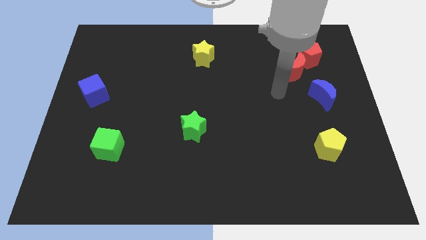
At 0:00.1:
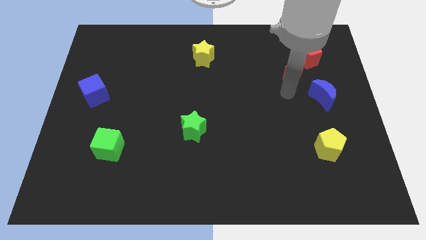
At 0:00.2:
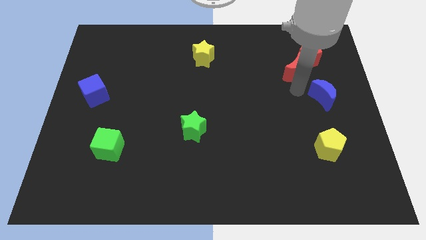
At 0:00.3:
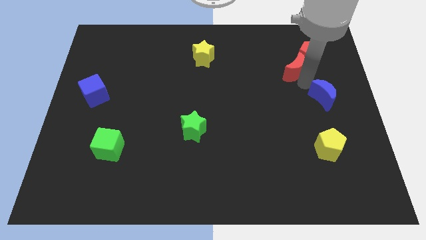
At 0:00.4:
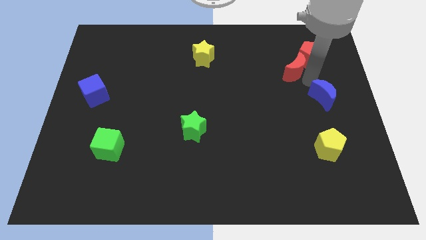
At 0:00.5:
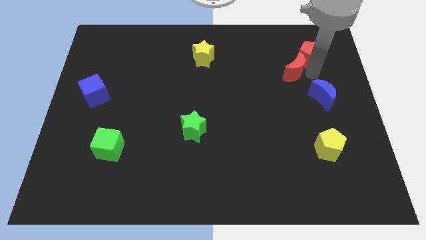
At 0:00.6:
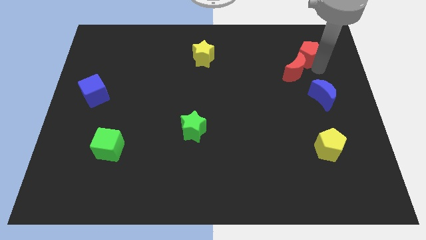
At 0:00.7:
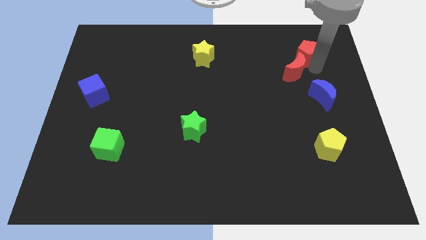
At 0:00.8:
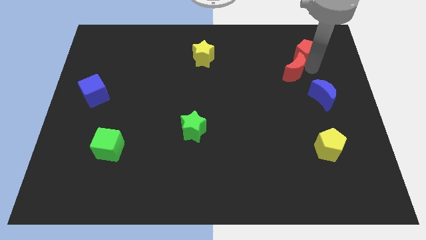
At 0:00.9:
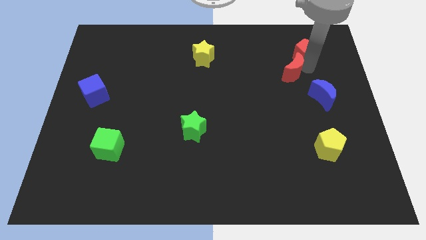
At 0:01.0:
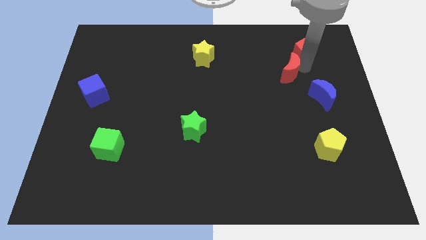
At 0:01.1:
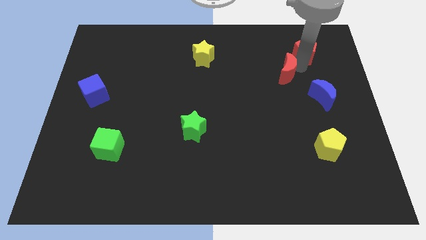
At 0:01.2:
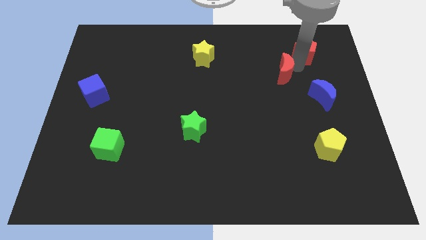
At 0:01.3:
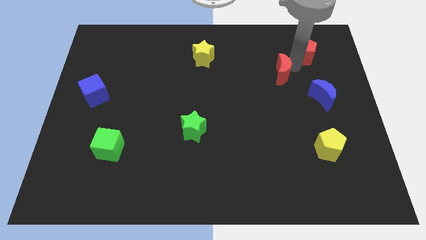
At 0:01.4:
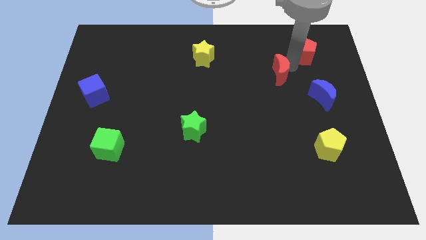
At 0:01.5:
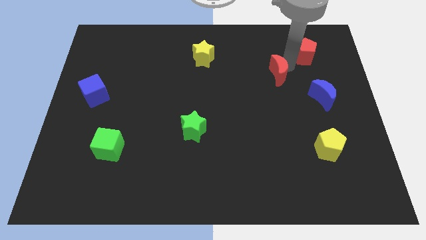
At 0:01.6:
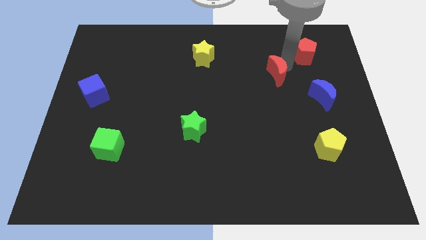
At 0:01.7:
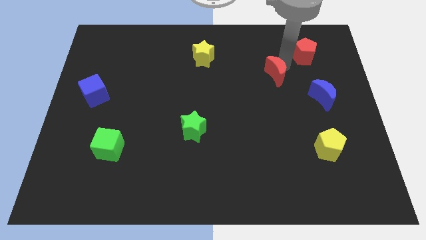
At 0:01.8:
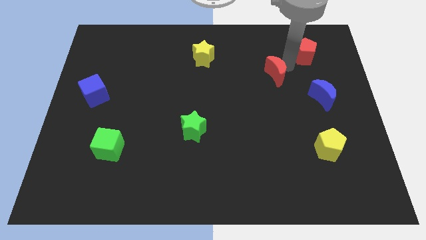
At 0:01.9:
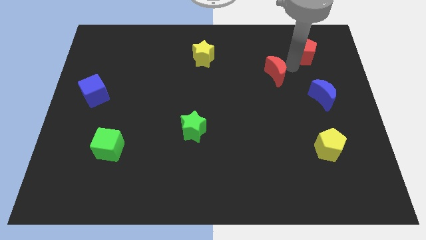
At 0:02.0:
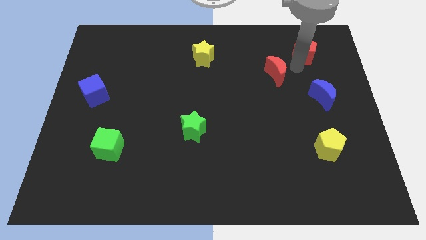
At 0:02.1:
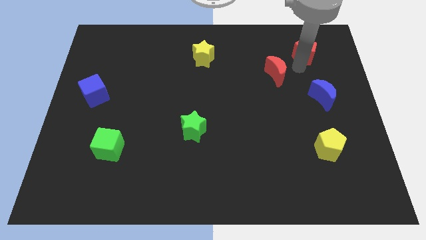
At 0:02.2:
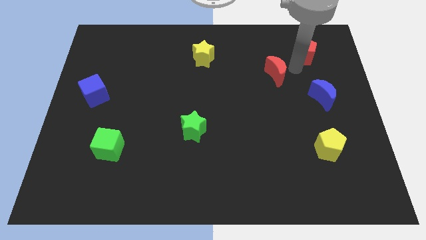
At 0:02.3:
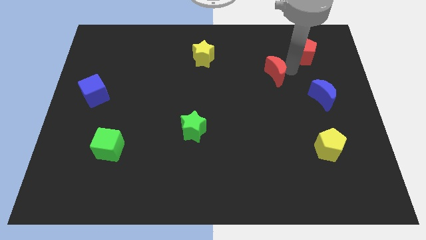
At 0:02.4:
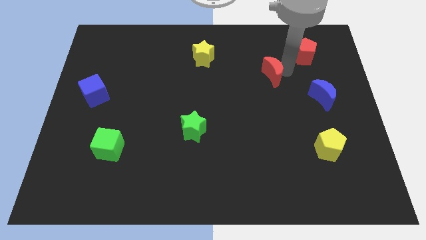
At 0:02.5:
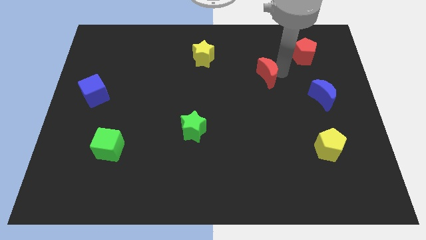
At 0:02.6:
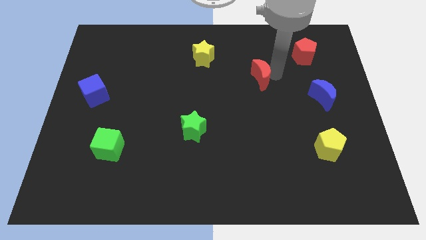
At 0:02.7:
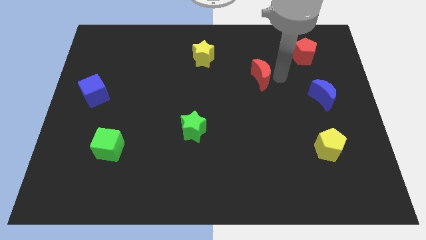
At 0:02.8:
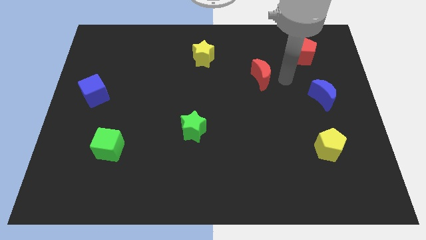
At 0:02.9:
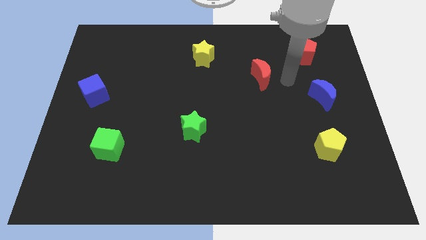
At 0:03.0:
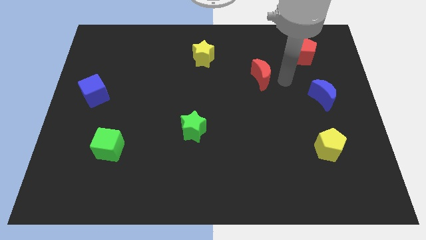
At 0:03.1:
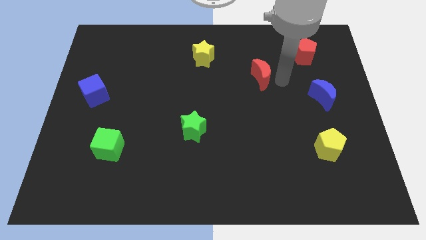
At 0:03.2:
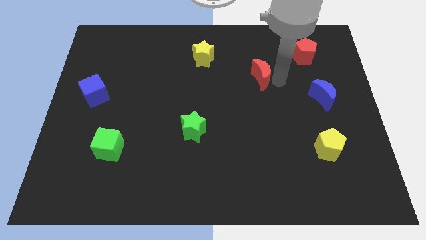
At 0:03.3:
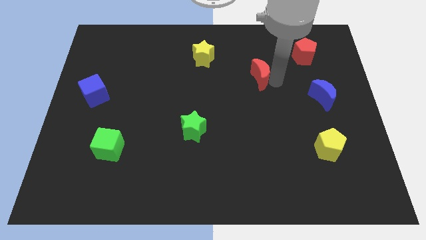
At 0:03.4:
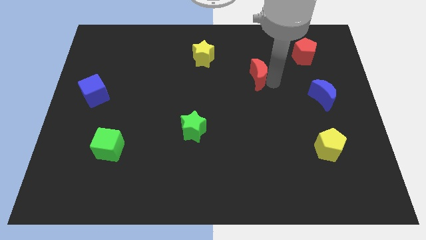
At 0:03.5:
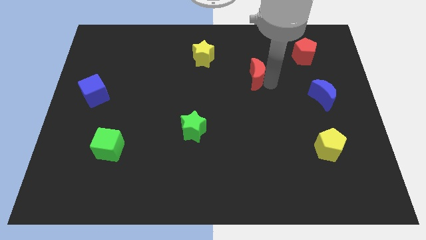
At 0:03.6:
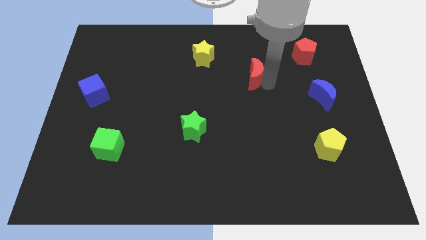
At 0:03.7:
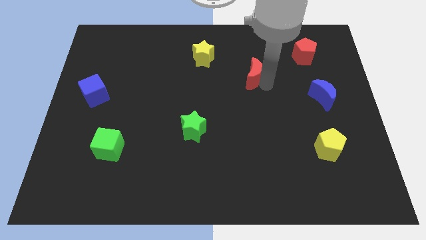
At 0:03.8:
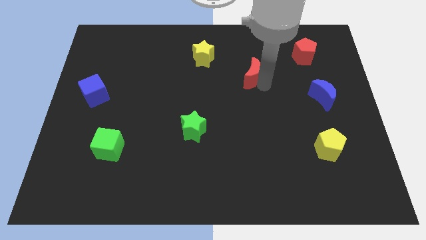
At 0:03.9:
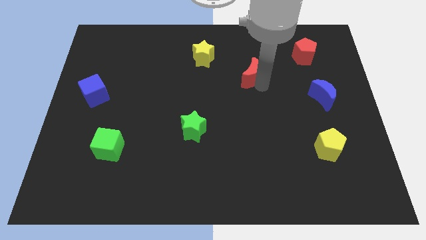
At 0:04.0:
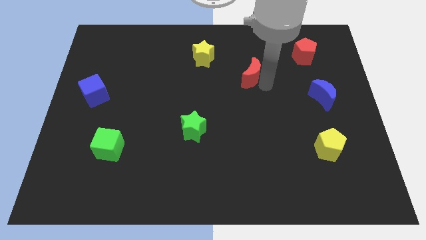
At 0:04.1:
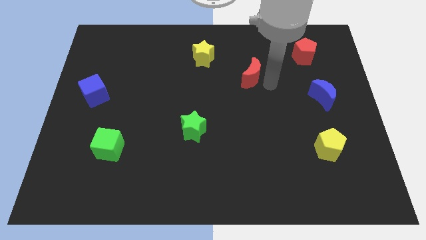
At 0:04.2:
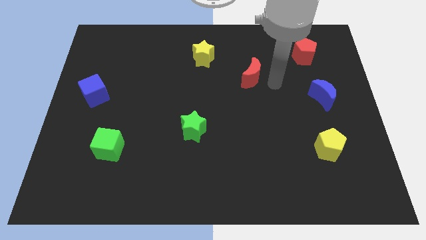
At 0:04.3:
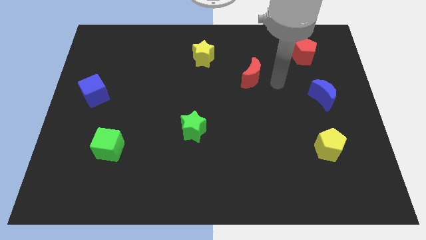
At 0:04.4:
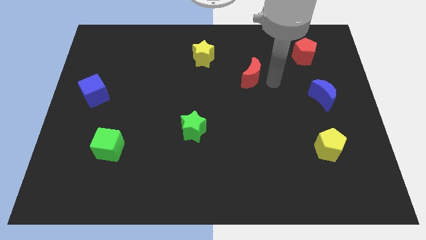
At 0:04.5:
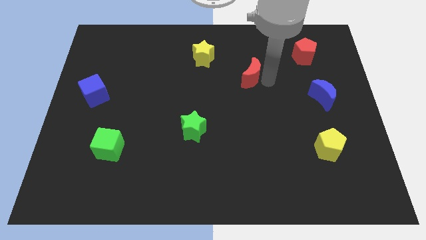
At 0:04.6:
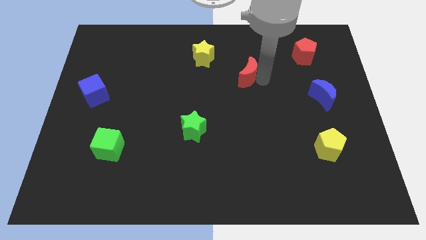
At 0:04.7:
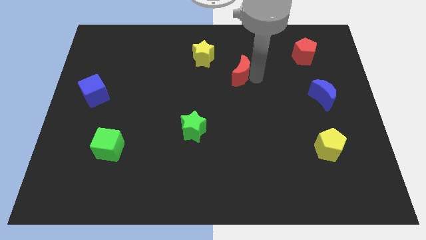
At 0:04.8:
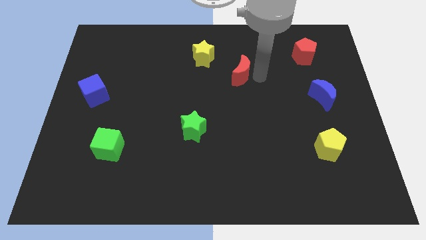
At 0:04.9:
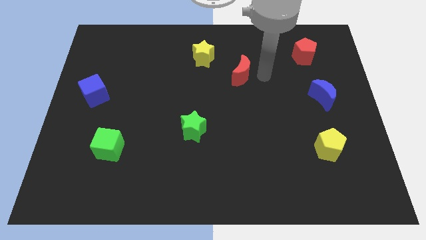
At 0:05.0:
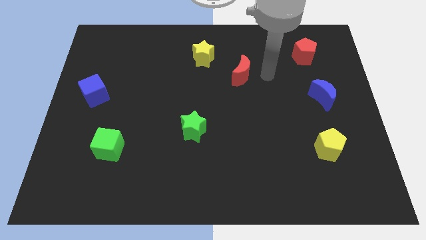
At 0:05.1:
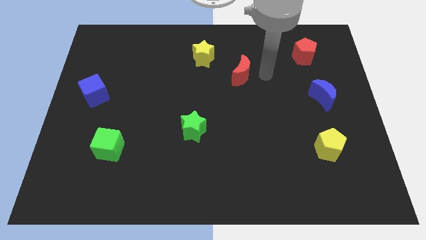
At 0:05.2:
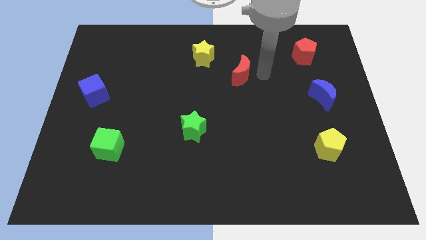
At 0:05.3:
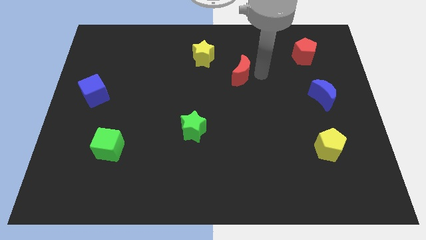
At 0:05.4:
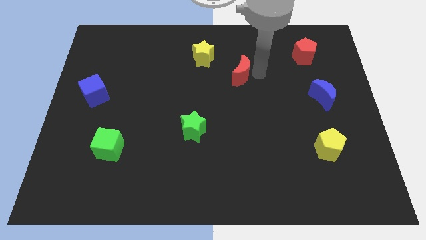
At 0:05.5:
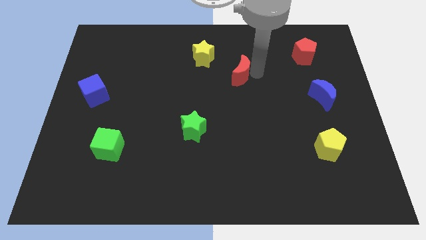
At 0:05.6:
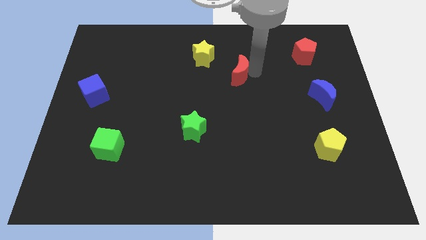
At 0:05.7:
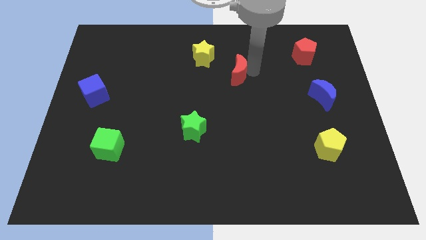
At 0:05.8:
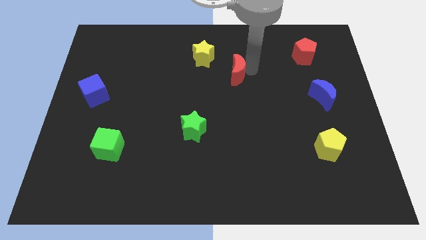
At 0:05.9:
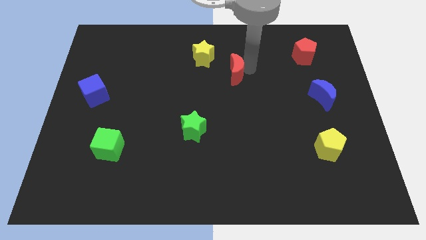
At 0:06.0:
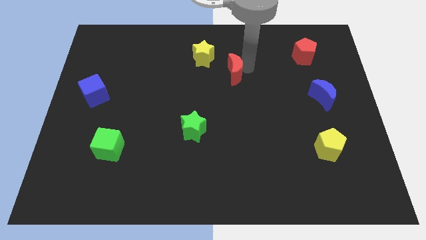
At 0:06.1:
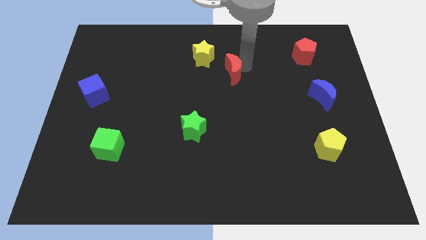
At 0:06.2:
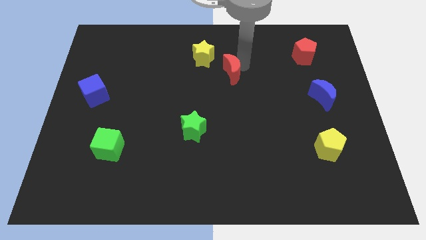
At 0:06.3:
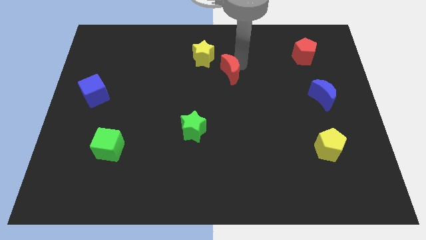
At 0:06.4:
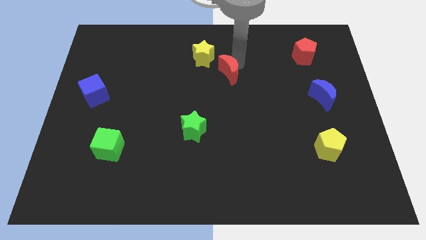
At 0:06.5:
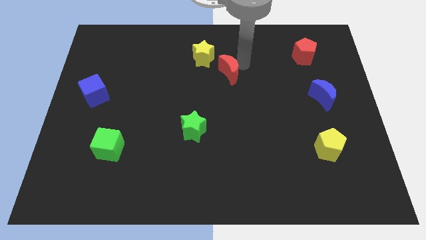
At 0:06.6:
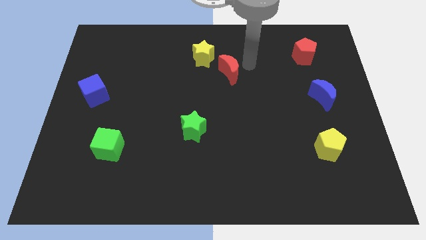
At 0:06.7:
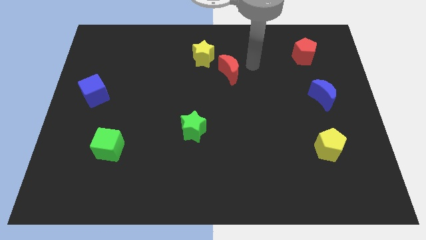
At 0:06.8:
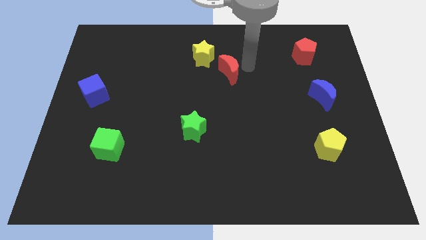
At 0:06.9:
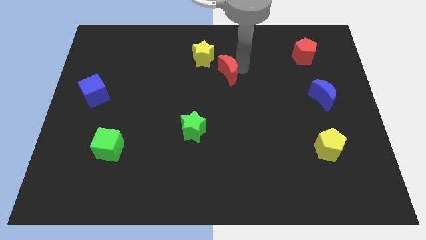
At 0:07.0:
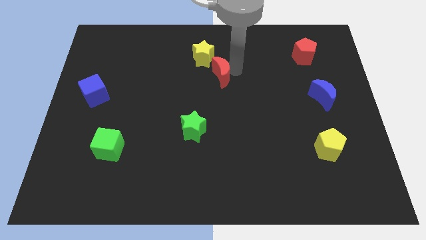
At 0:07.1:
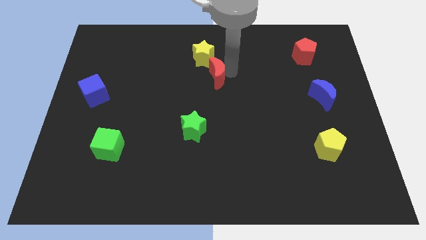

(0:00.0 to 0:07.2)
move the red moon left

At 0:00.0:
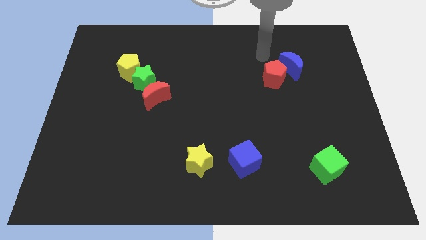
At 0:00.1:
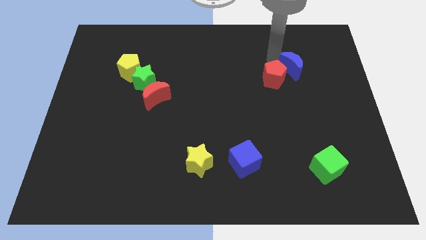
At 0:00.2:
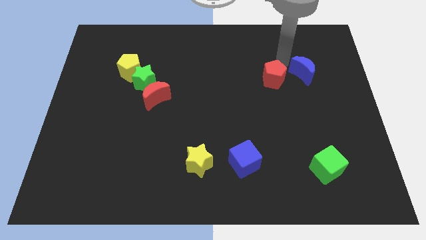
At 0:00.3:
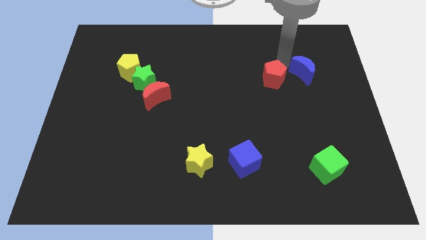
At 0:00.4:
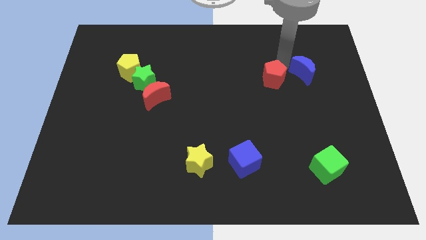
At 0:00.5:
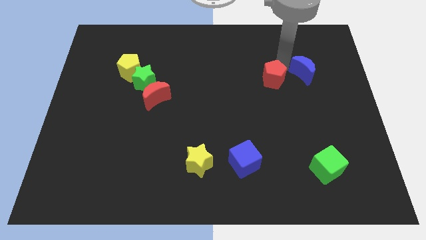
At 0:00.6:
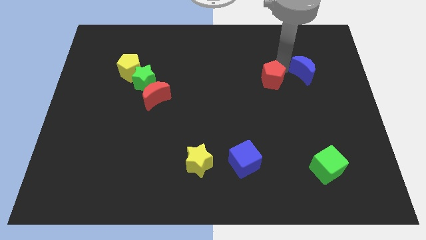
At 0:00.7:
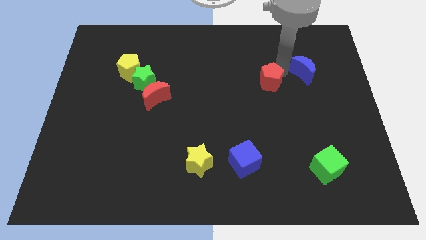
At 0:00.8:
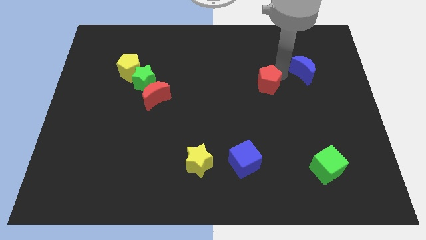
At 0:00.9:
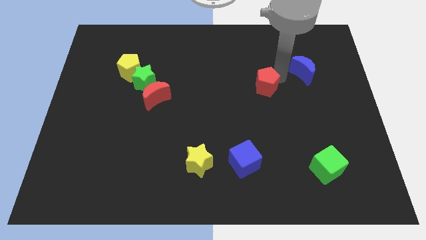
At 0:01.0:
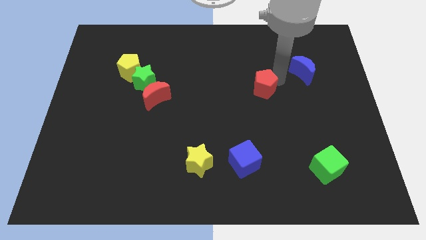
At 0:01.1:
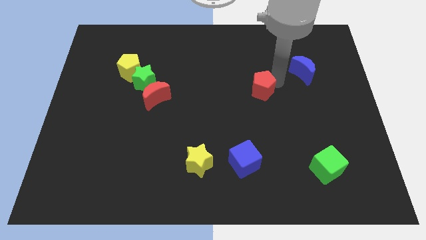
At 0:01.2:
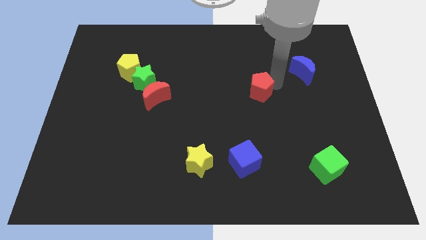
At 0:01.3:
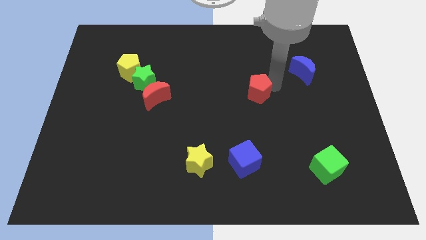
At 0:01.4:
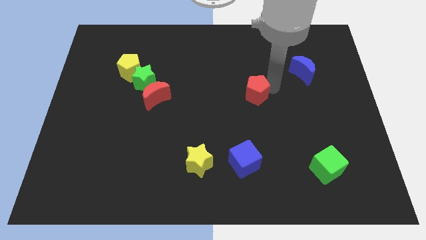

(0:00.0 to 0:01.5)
move the red pentagon slightly diagonally down and left
